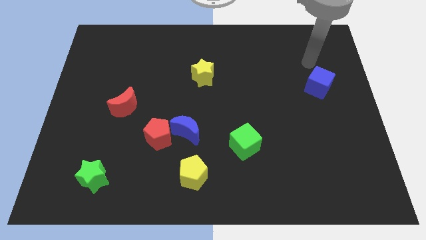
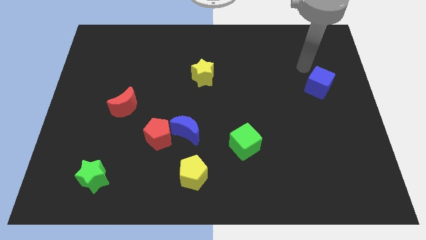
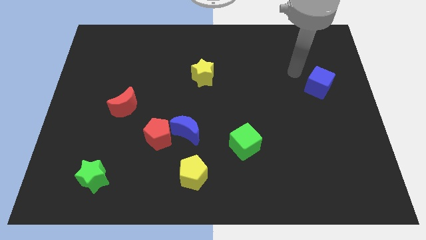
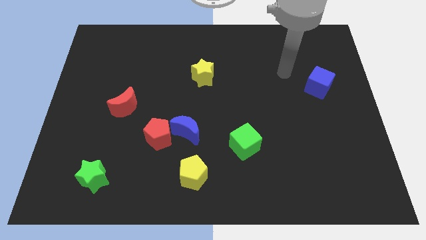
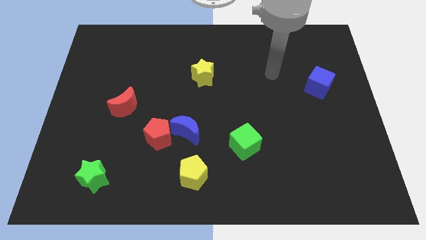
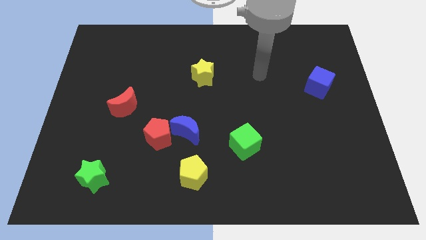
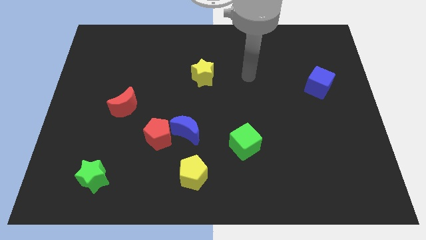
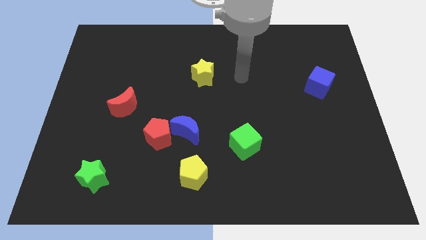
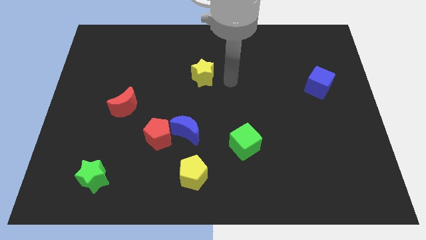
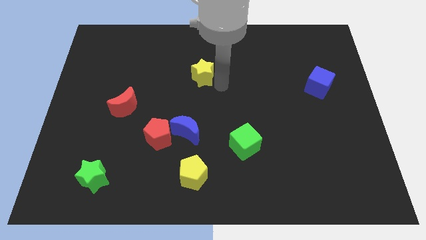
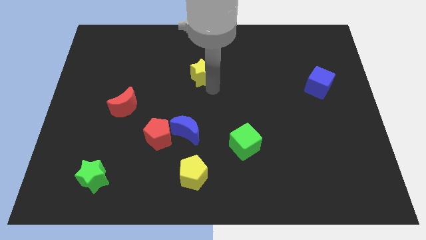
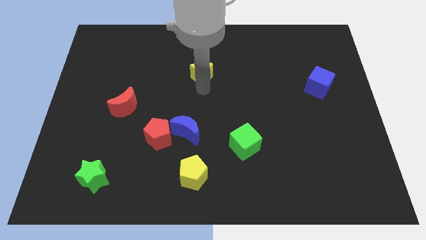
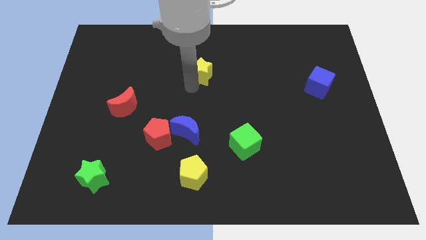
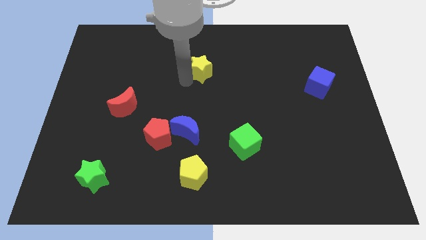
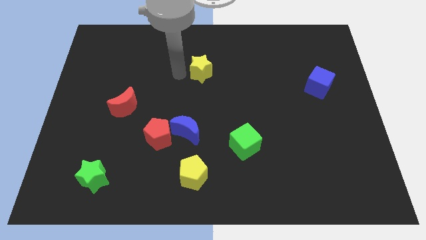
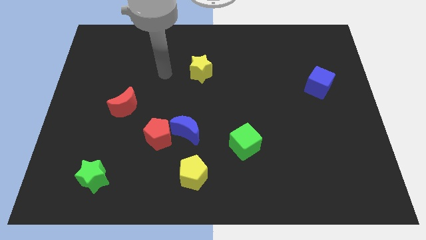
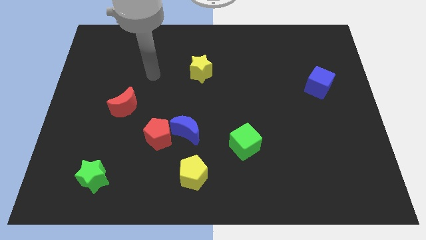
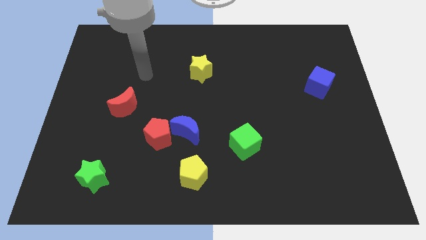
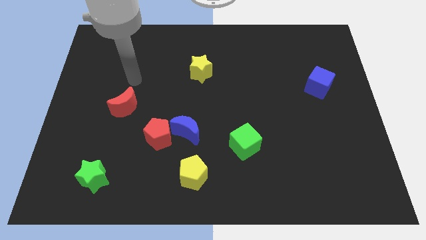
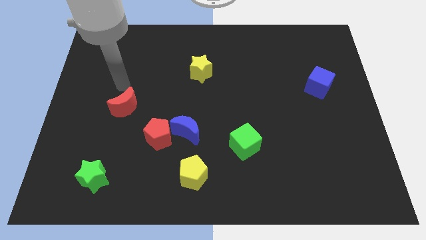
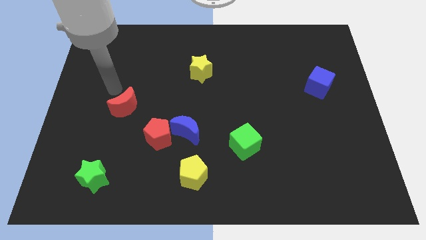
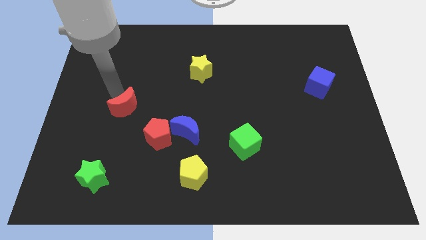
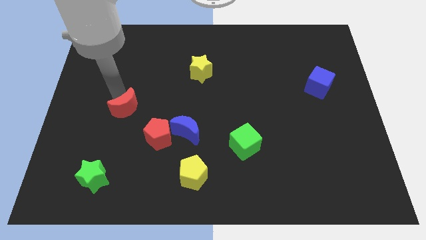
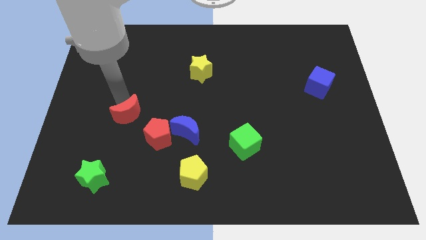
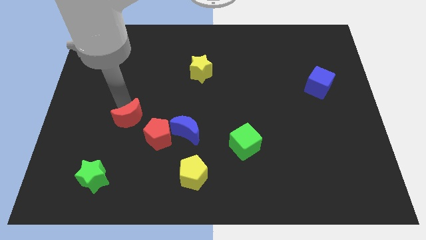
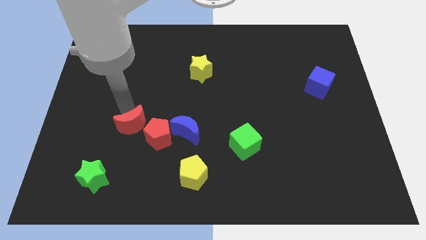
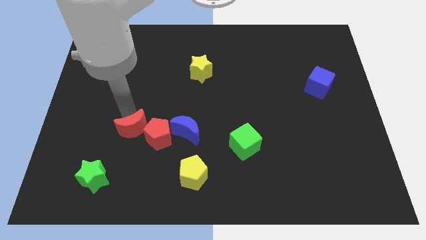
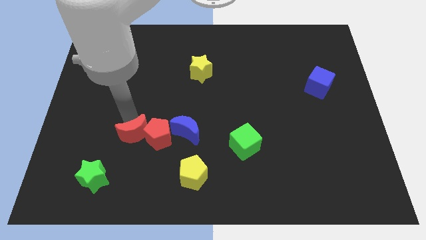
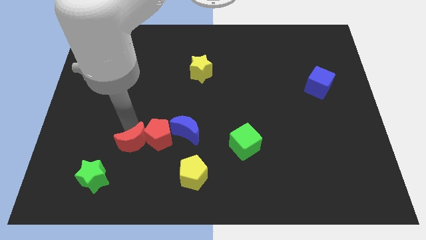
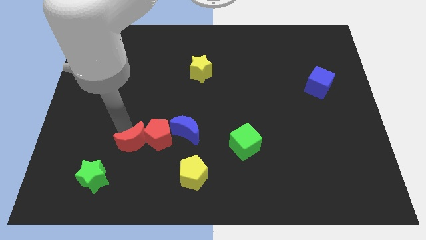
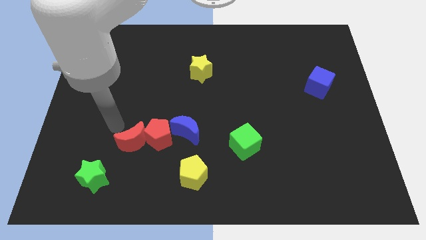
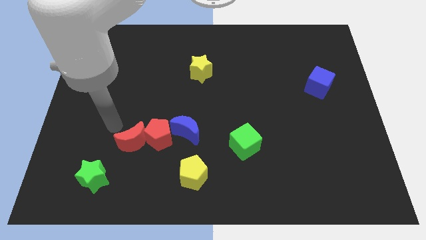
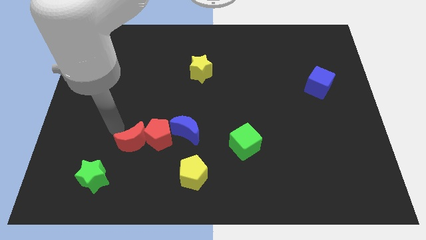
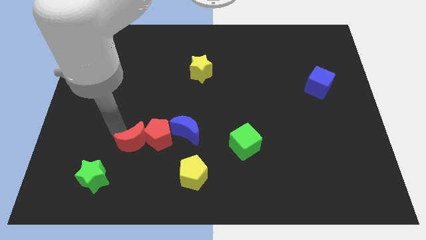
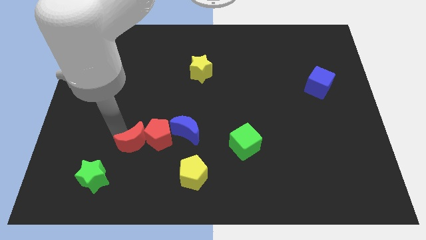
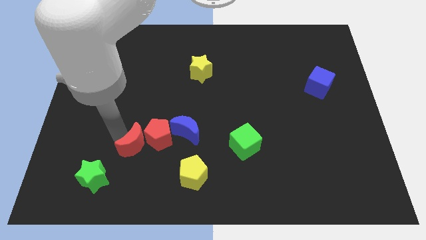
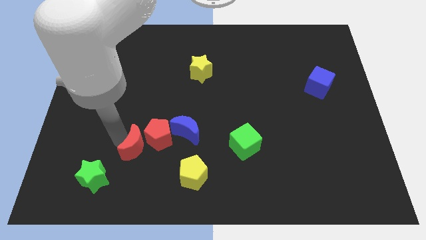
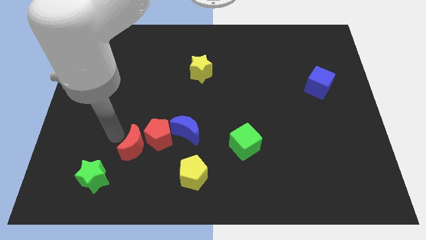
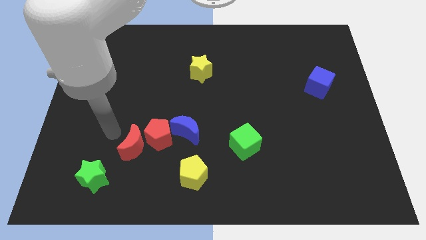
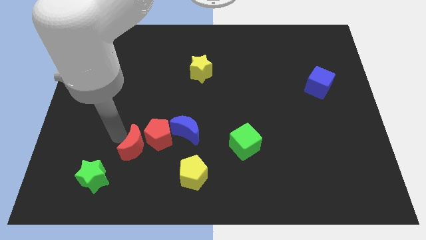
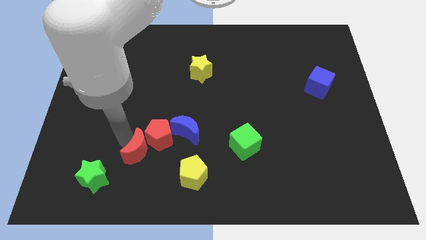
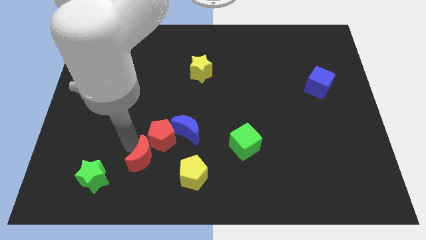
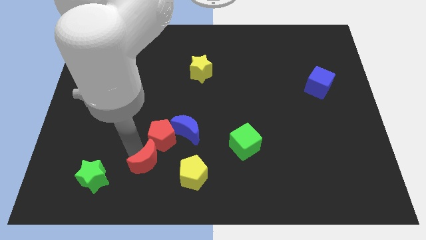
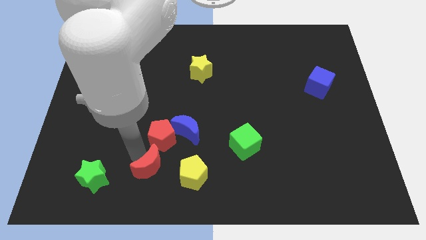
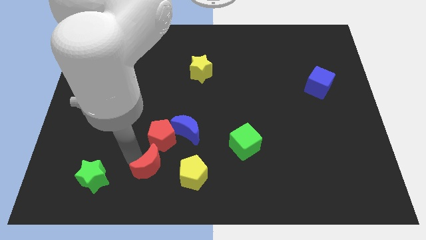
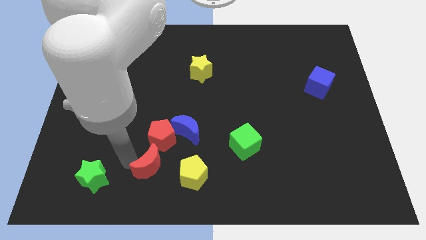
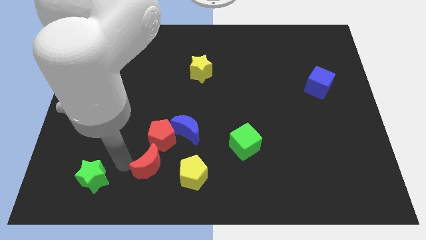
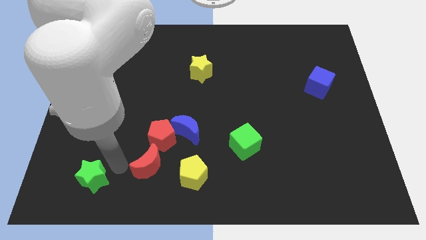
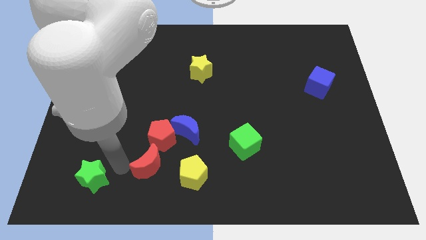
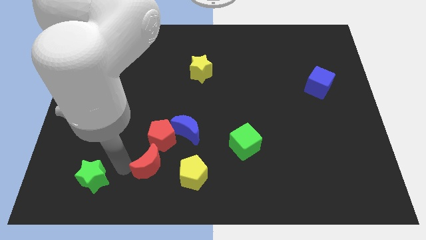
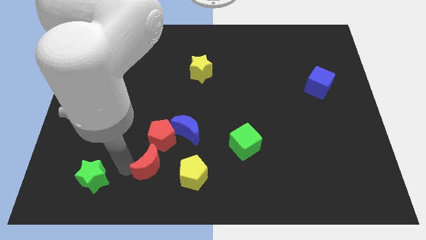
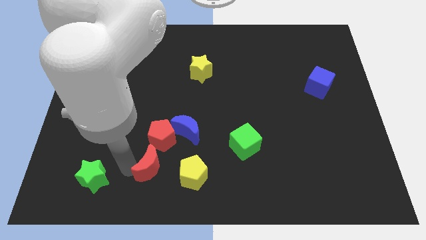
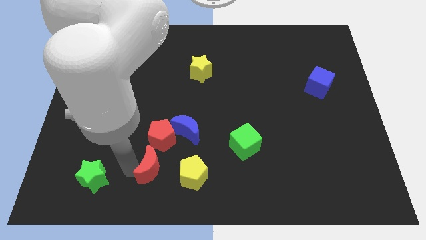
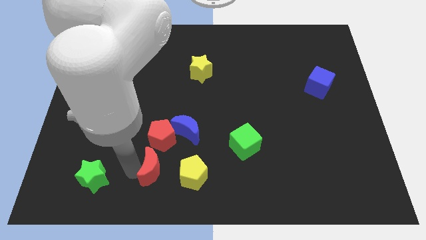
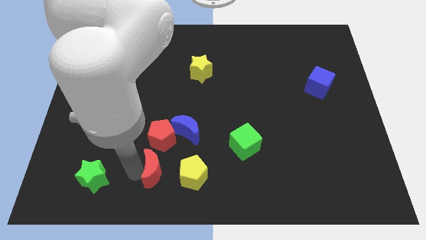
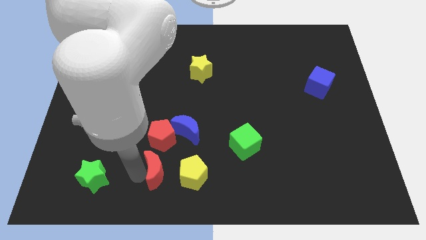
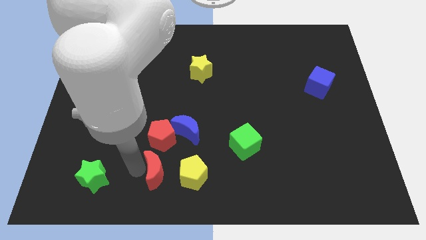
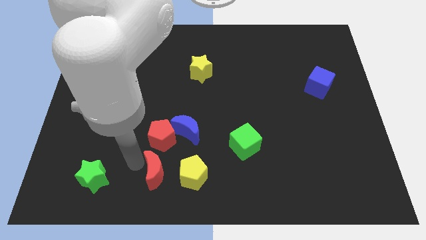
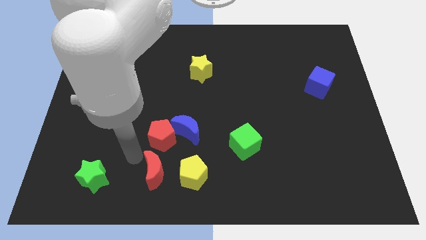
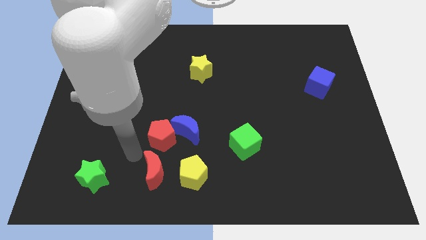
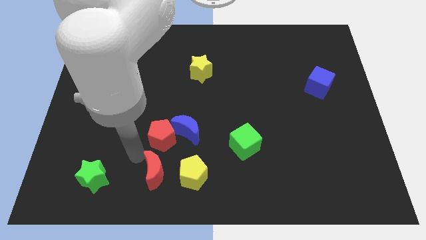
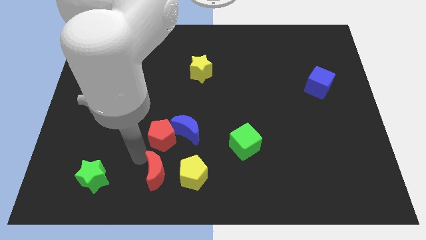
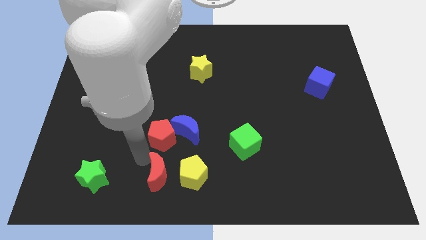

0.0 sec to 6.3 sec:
push the red moon to the bottom side
